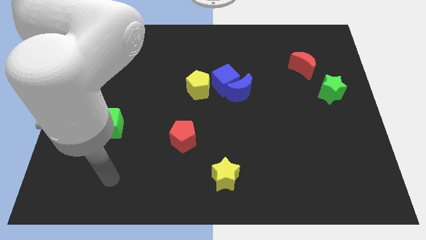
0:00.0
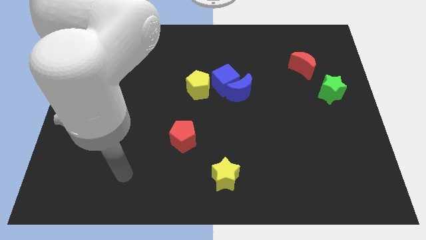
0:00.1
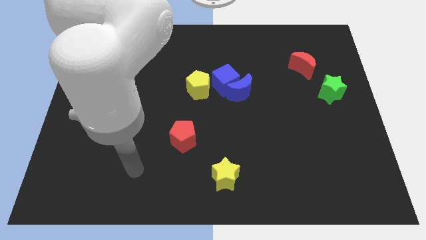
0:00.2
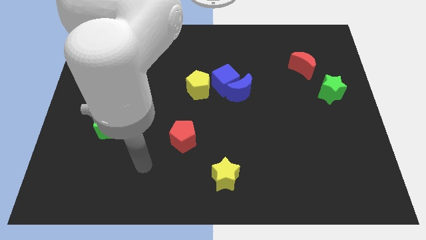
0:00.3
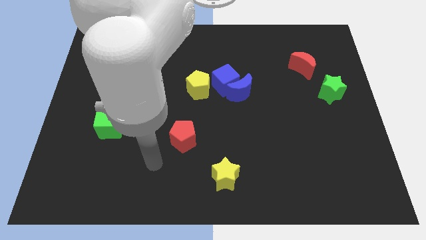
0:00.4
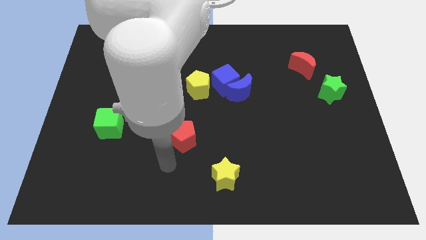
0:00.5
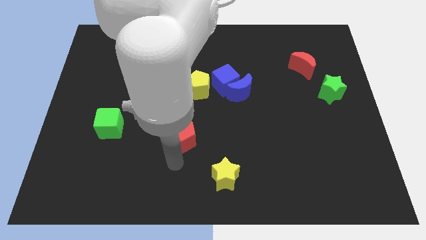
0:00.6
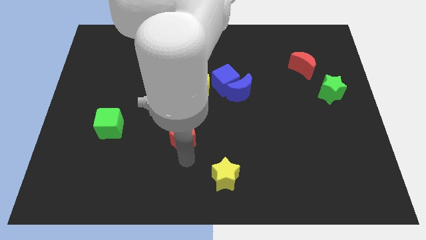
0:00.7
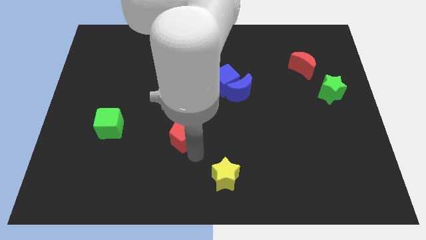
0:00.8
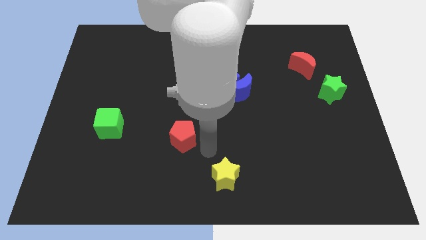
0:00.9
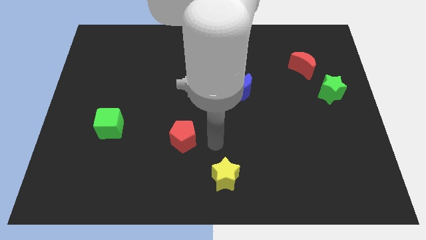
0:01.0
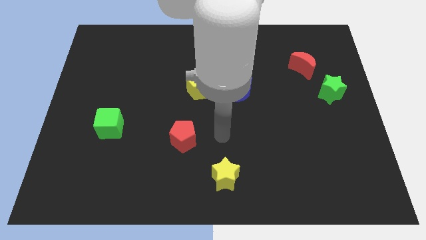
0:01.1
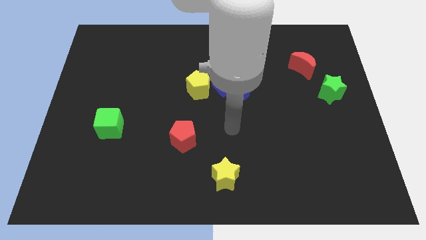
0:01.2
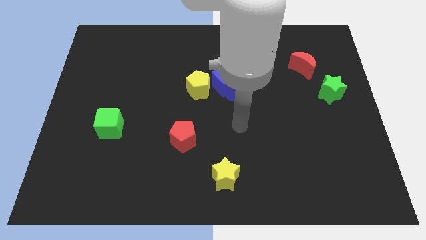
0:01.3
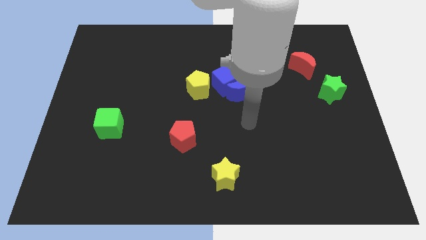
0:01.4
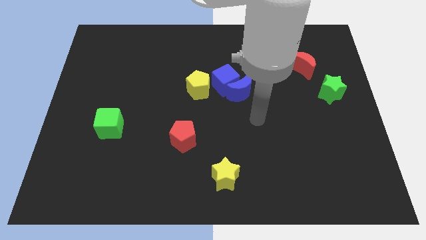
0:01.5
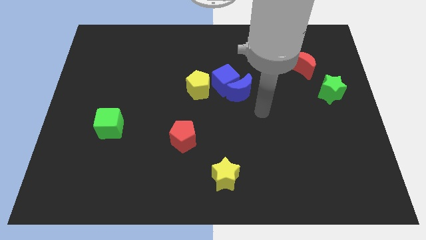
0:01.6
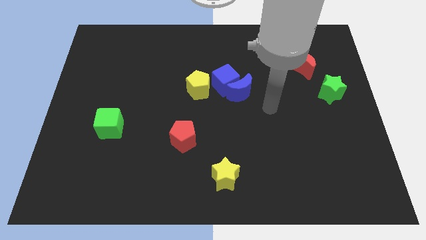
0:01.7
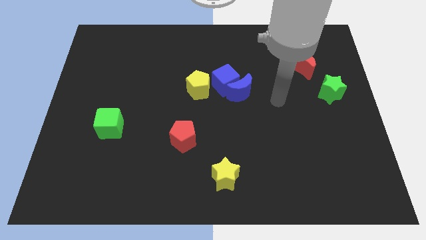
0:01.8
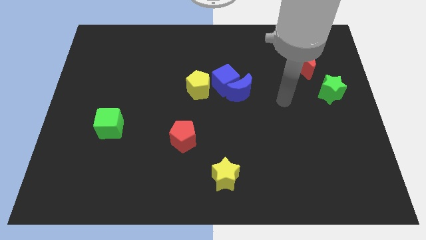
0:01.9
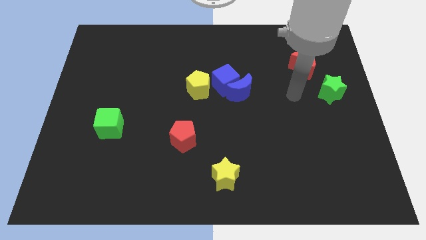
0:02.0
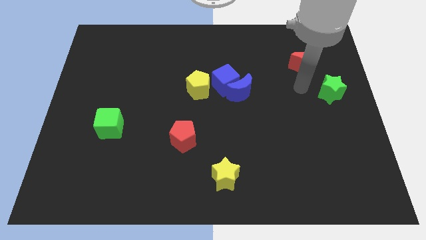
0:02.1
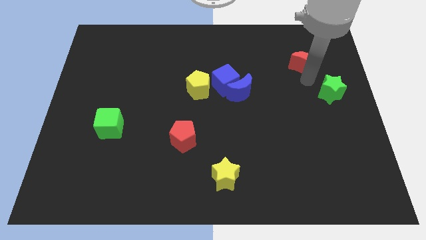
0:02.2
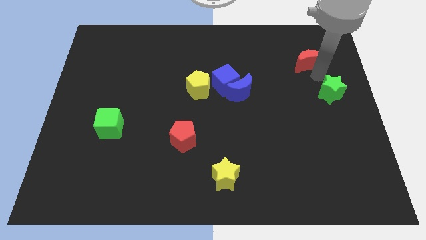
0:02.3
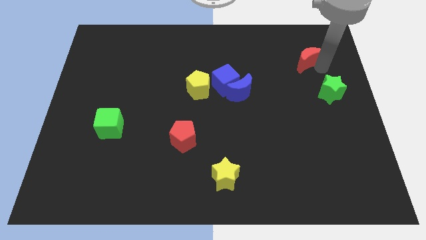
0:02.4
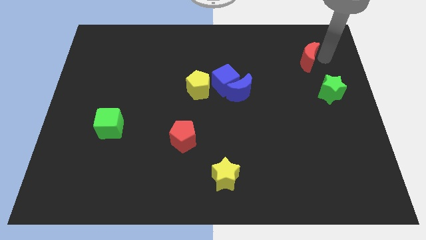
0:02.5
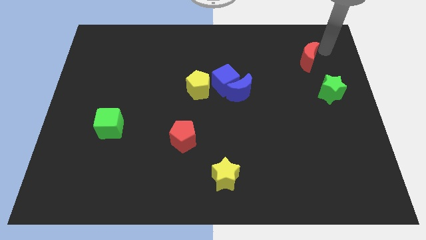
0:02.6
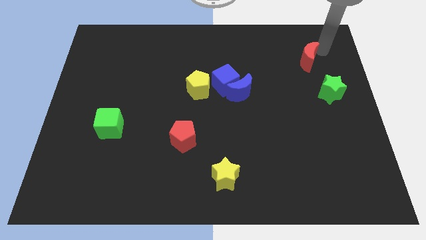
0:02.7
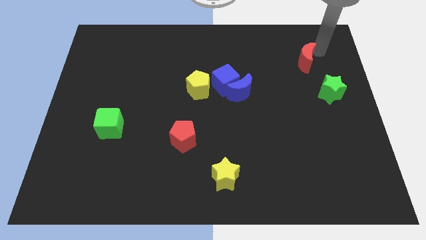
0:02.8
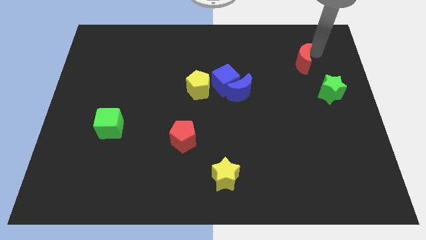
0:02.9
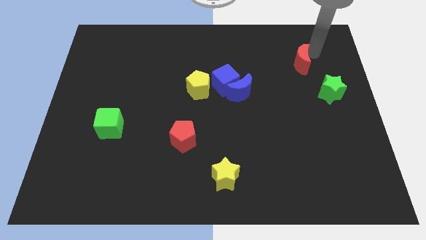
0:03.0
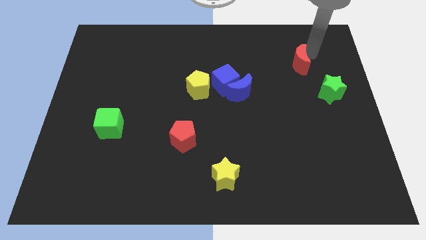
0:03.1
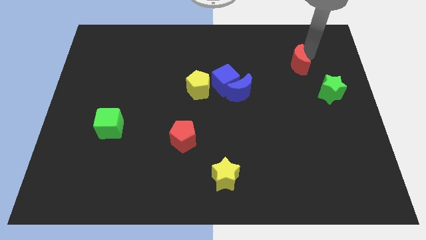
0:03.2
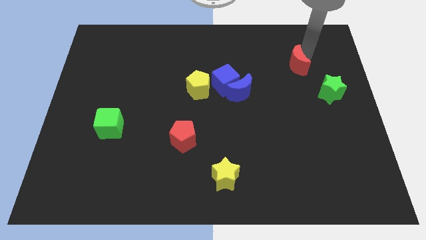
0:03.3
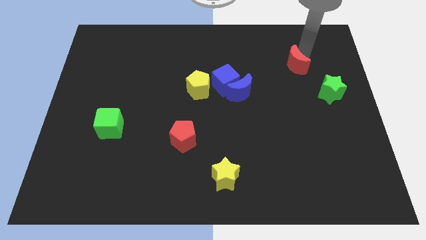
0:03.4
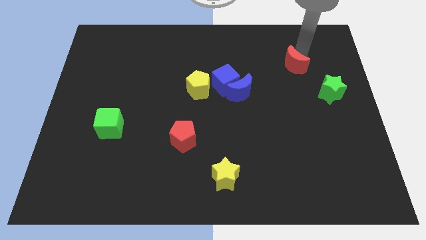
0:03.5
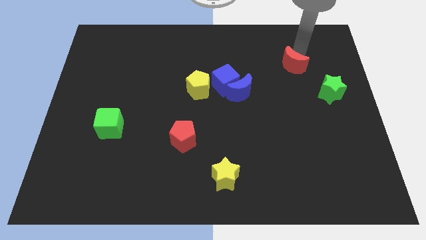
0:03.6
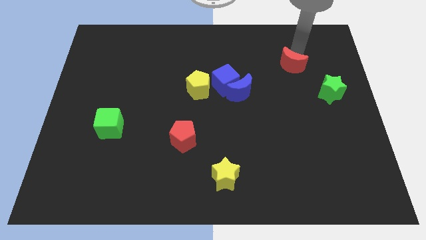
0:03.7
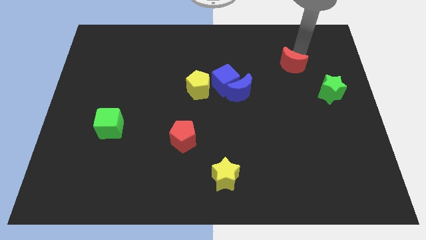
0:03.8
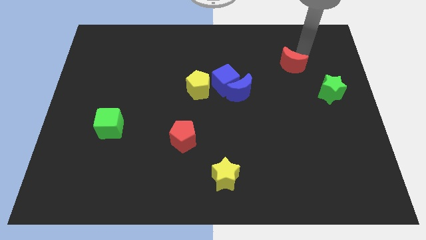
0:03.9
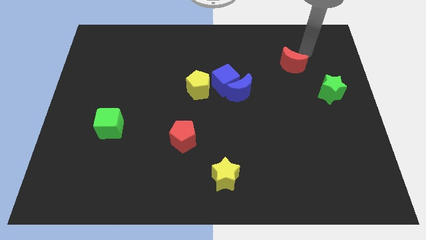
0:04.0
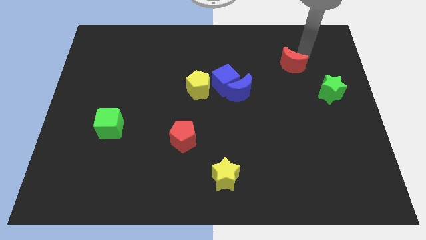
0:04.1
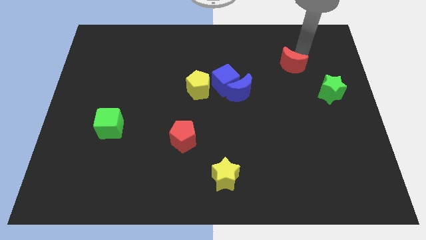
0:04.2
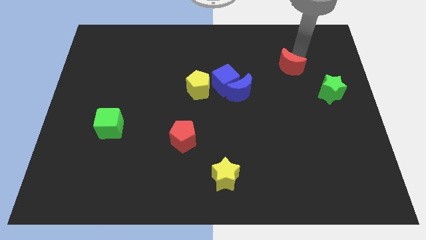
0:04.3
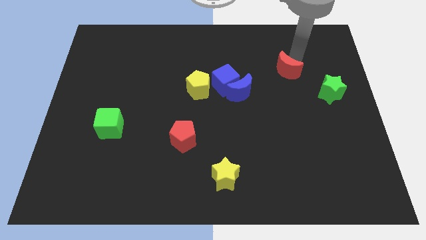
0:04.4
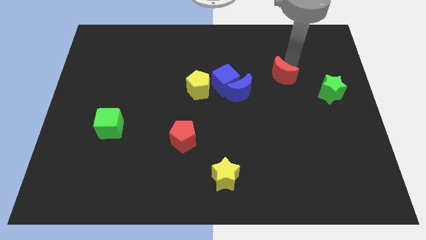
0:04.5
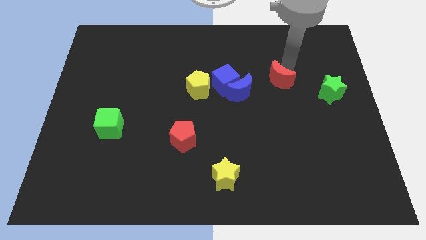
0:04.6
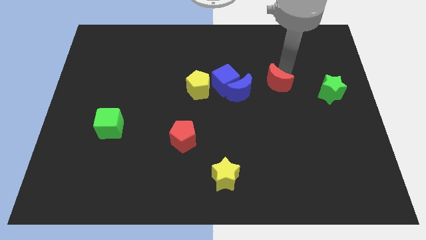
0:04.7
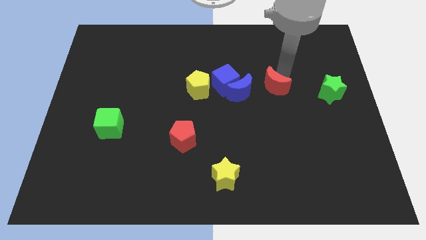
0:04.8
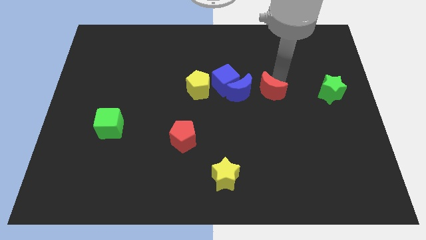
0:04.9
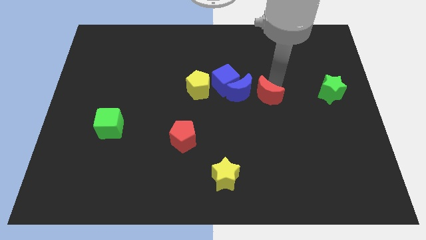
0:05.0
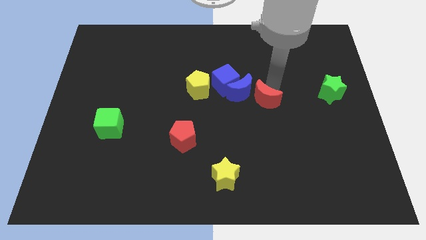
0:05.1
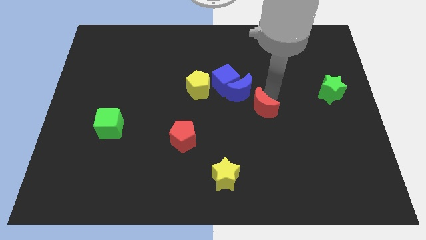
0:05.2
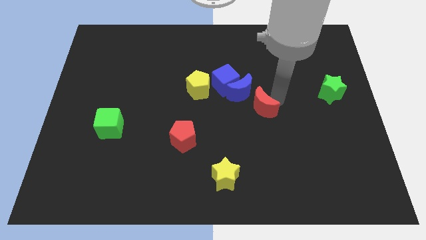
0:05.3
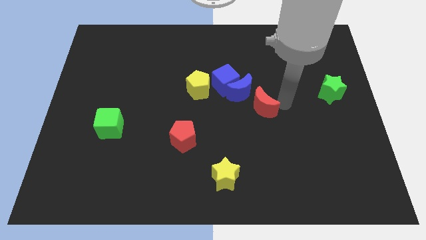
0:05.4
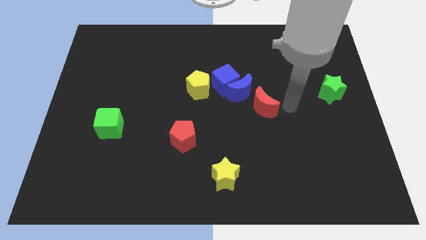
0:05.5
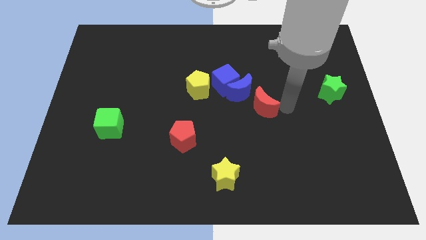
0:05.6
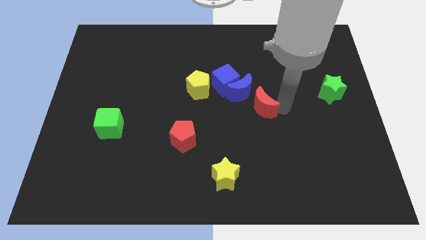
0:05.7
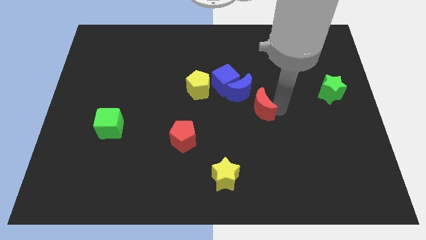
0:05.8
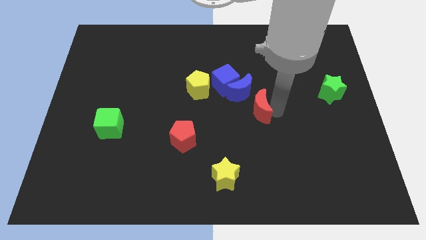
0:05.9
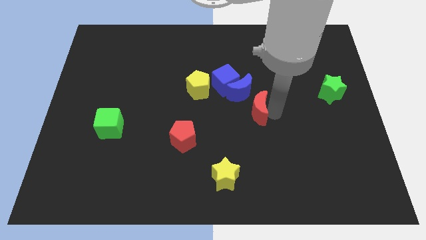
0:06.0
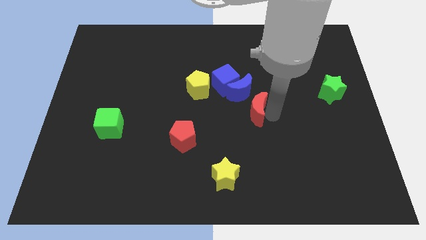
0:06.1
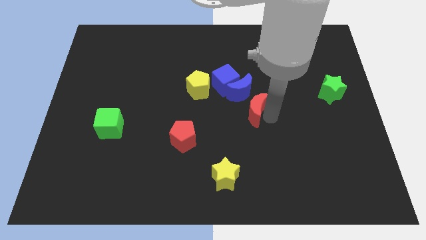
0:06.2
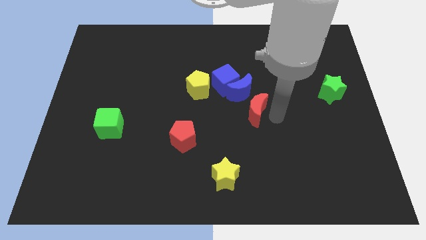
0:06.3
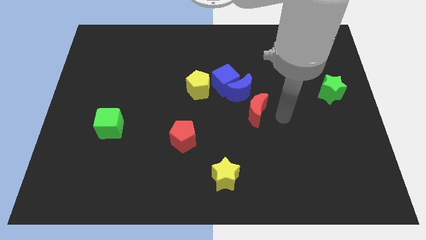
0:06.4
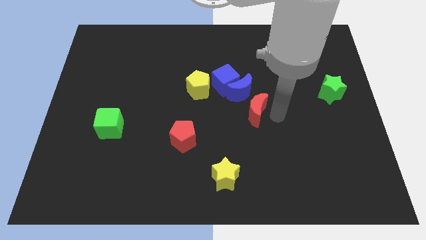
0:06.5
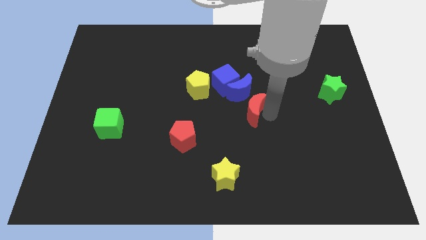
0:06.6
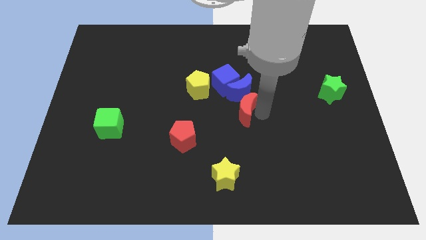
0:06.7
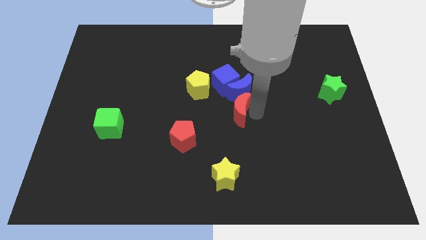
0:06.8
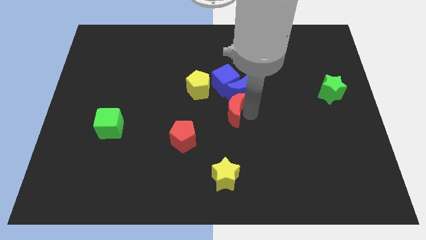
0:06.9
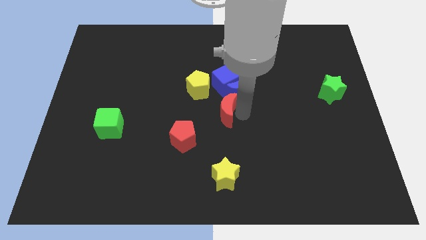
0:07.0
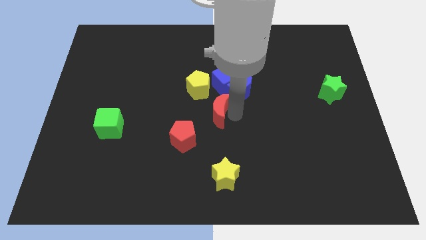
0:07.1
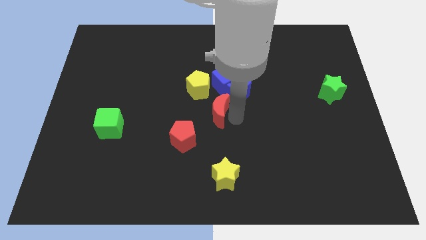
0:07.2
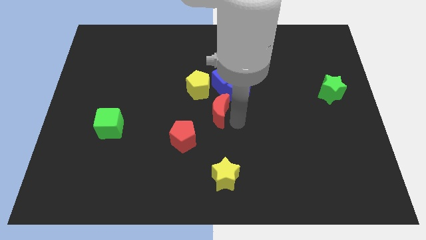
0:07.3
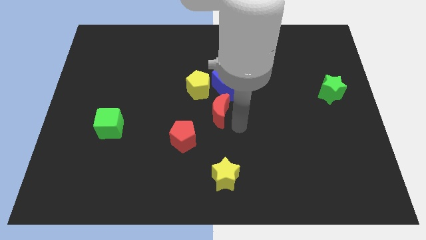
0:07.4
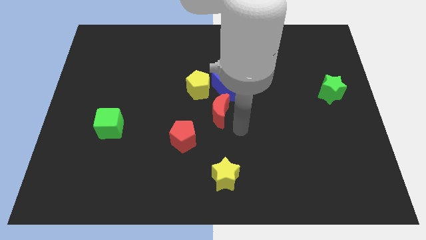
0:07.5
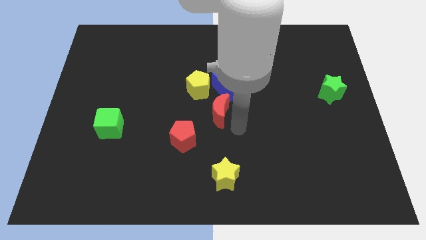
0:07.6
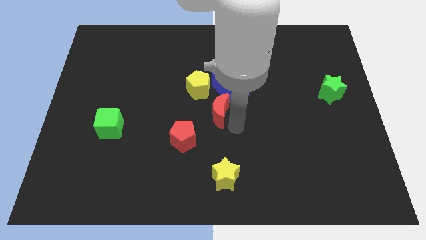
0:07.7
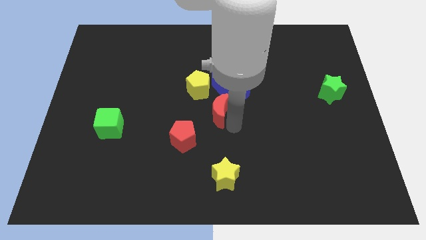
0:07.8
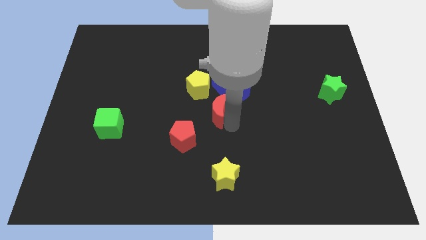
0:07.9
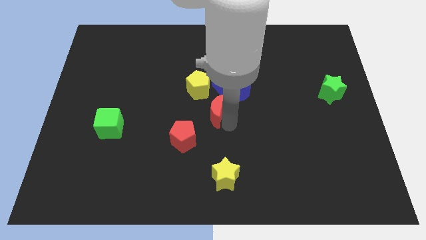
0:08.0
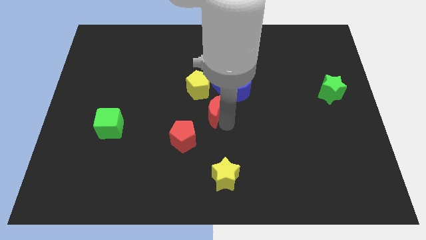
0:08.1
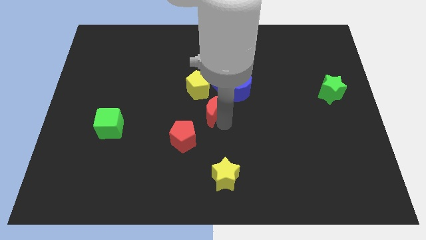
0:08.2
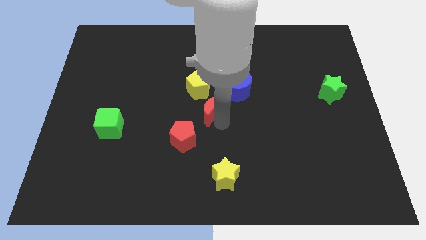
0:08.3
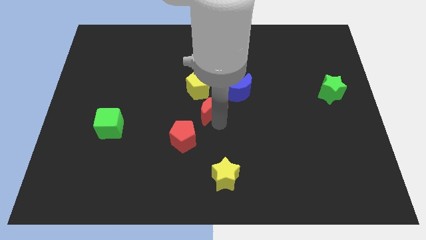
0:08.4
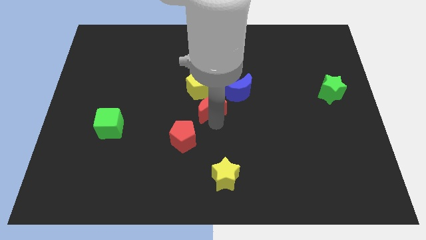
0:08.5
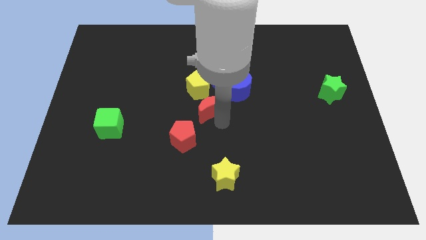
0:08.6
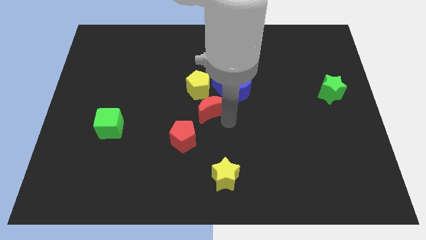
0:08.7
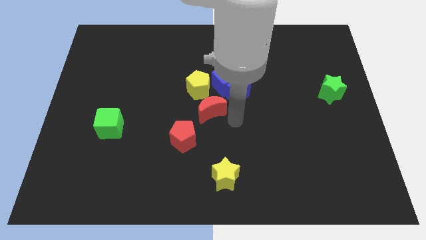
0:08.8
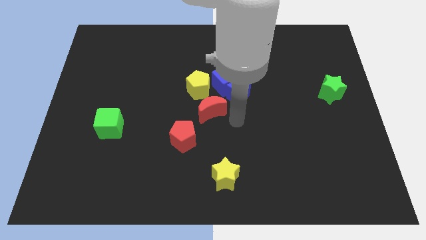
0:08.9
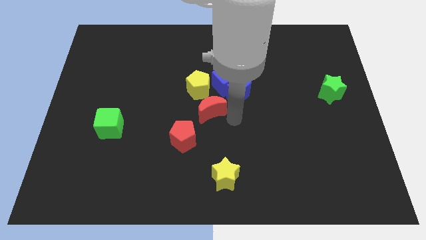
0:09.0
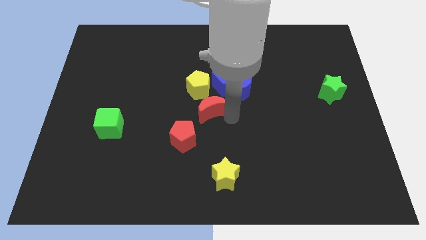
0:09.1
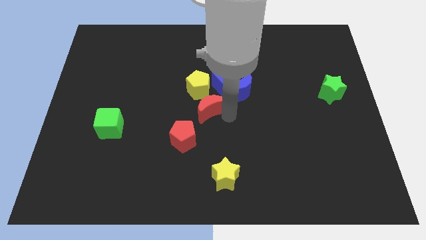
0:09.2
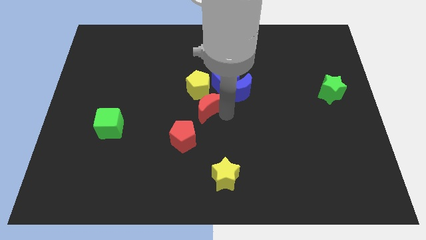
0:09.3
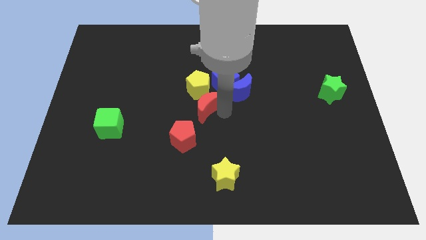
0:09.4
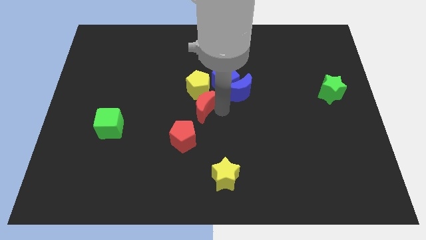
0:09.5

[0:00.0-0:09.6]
push the red moon above the red pentagon
